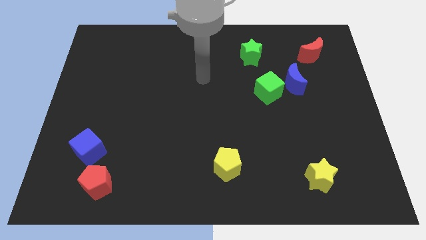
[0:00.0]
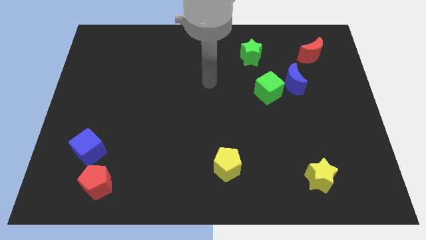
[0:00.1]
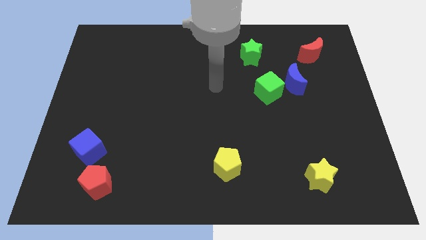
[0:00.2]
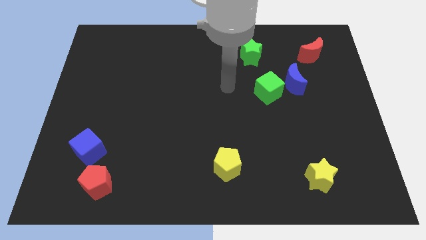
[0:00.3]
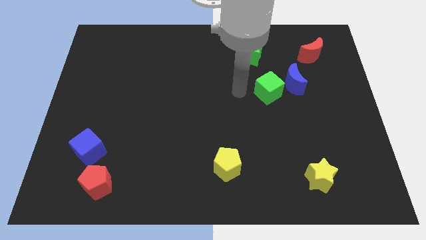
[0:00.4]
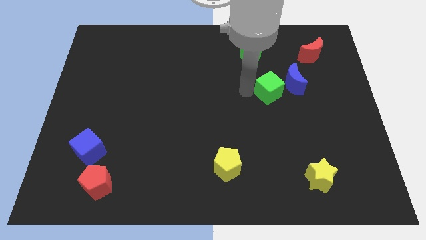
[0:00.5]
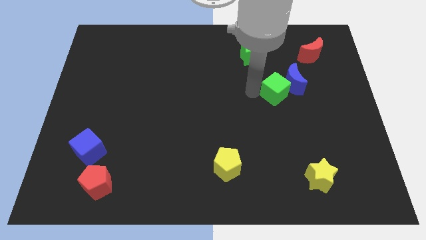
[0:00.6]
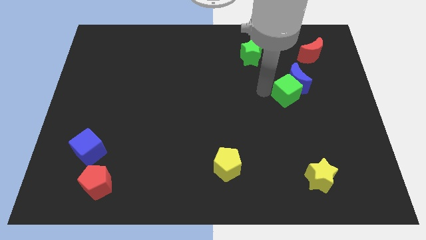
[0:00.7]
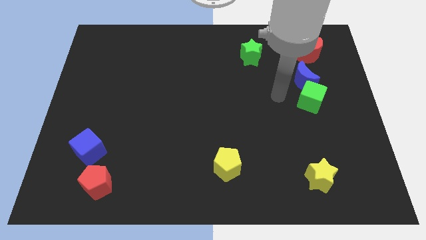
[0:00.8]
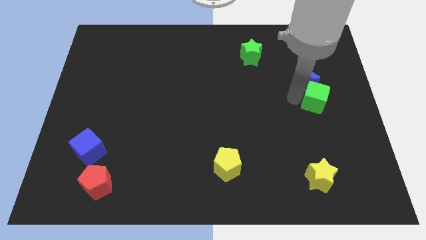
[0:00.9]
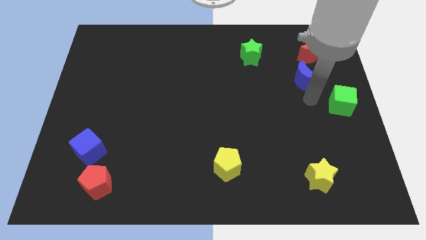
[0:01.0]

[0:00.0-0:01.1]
pull the blue moon apart from the green cube

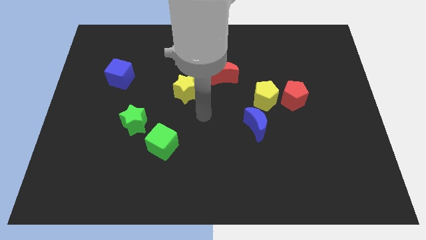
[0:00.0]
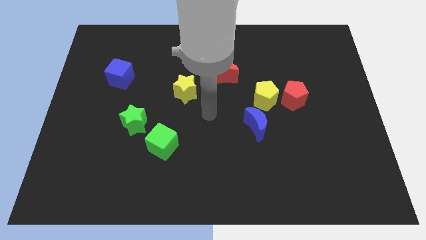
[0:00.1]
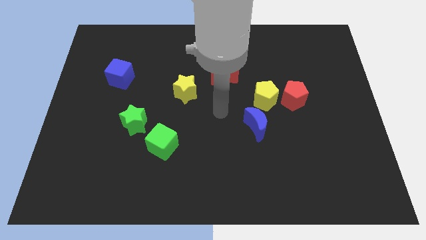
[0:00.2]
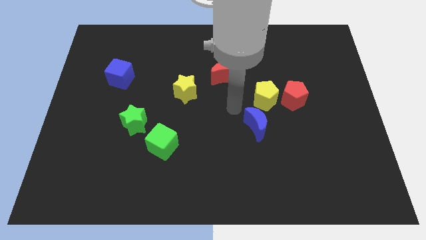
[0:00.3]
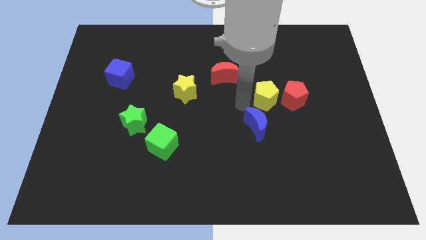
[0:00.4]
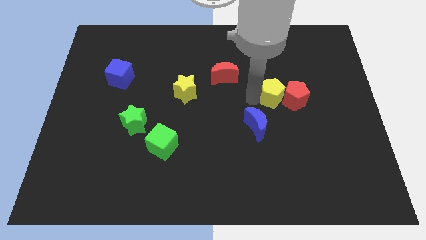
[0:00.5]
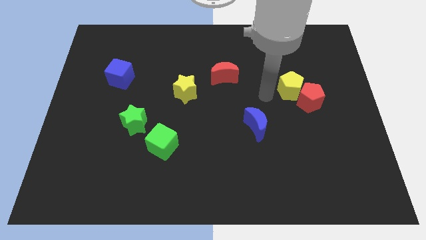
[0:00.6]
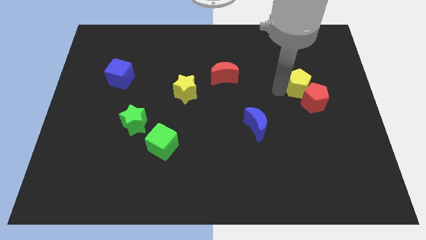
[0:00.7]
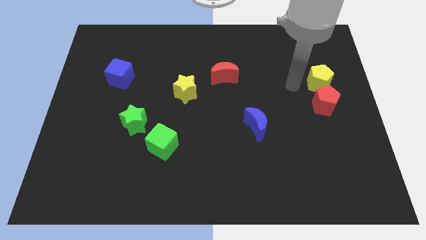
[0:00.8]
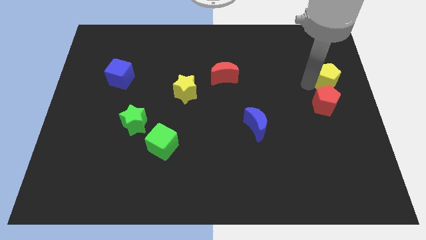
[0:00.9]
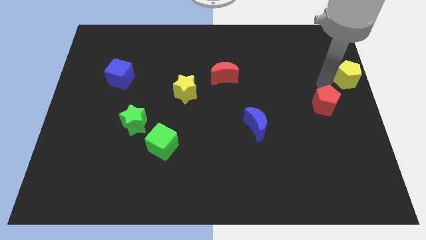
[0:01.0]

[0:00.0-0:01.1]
pull the red pentagon apart from the yellow pentagon

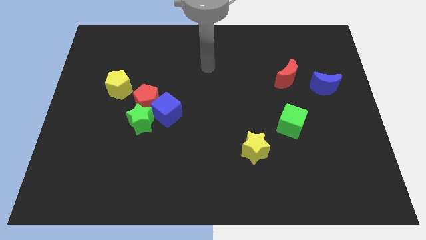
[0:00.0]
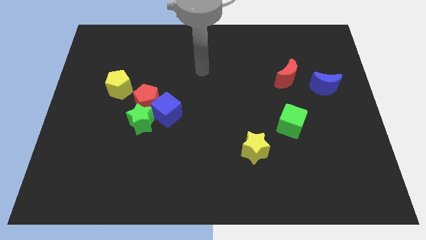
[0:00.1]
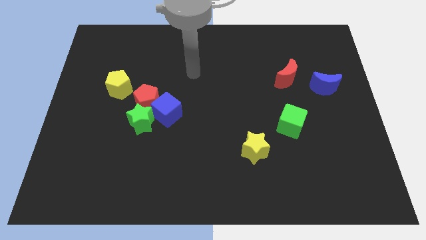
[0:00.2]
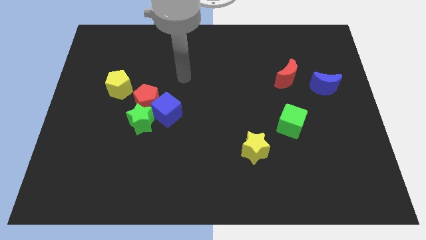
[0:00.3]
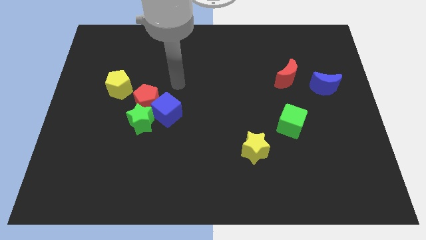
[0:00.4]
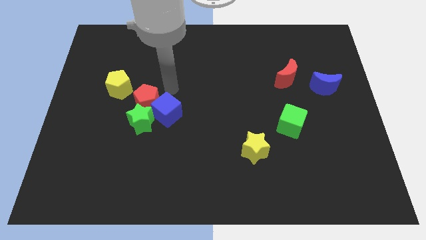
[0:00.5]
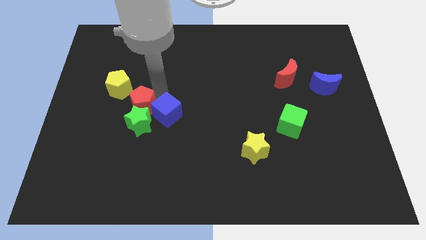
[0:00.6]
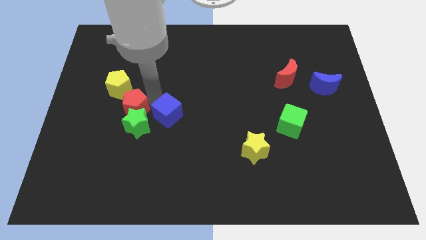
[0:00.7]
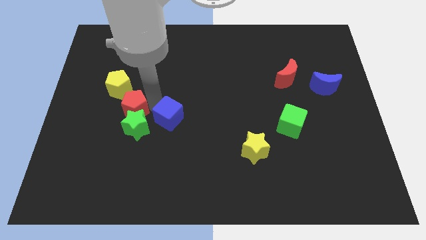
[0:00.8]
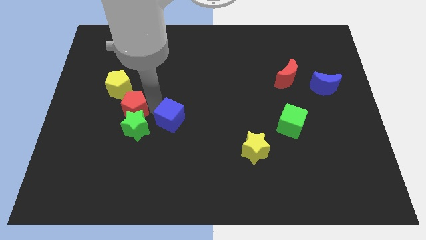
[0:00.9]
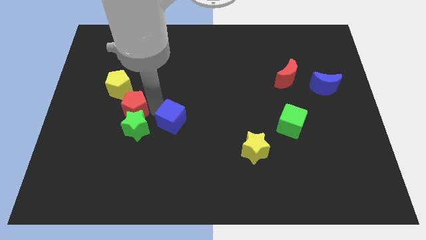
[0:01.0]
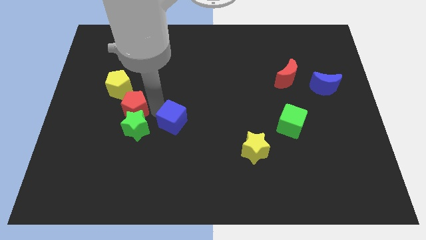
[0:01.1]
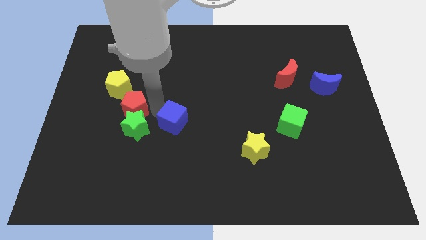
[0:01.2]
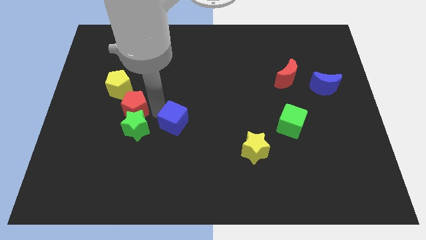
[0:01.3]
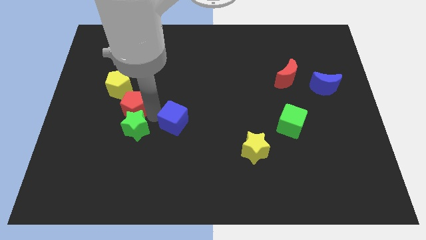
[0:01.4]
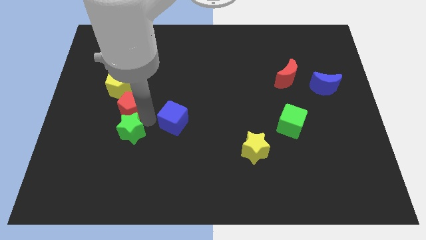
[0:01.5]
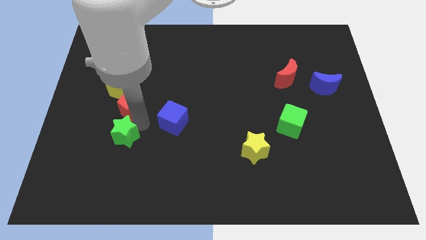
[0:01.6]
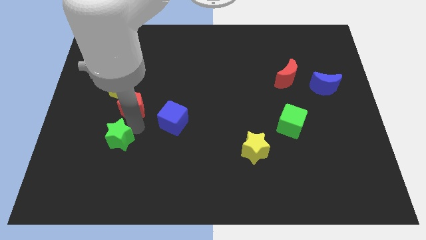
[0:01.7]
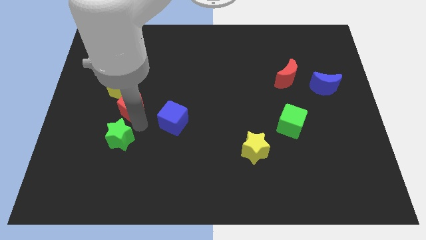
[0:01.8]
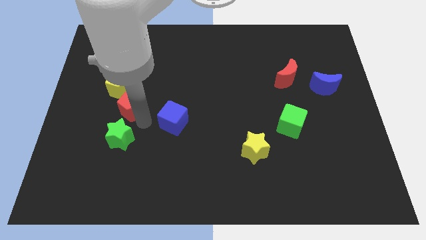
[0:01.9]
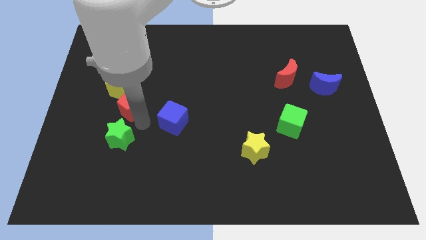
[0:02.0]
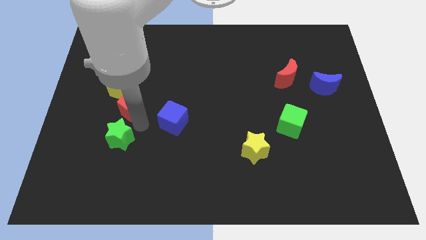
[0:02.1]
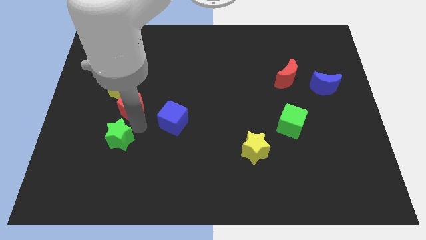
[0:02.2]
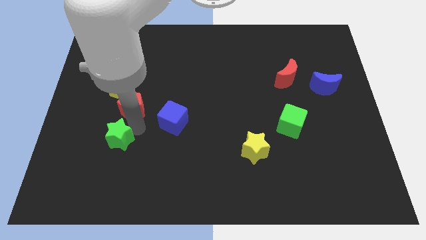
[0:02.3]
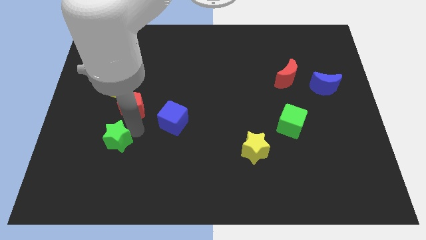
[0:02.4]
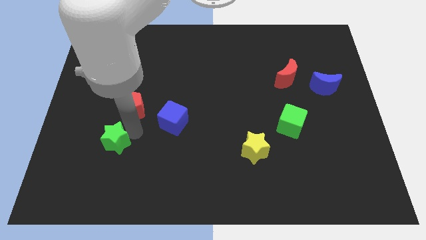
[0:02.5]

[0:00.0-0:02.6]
pull the green star apart from the red pentagon and blue cube

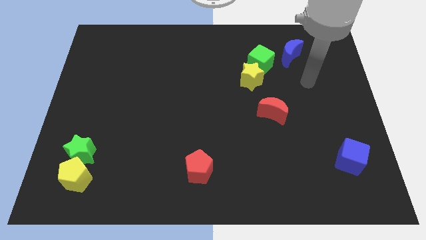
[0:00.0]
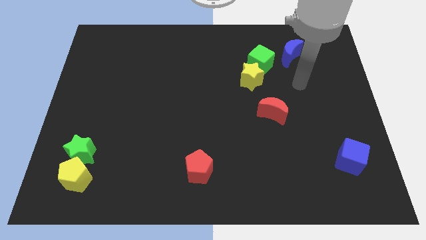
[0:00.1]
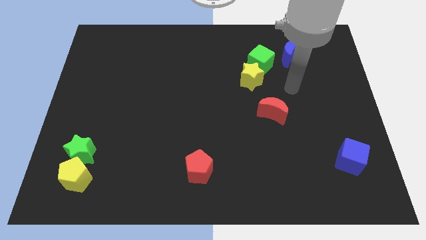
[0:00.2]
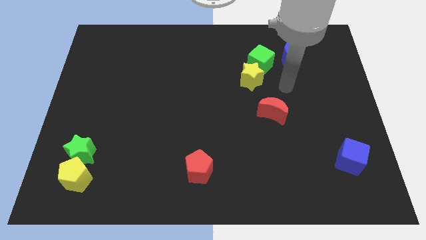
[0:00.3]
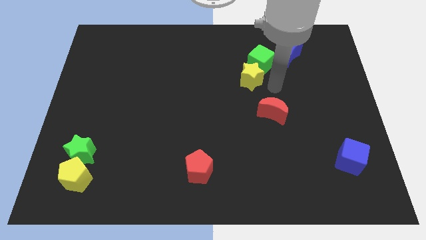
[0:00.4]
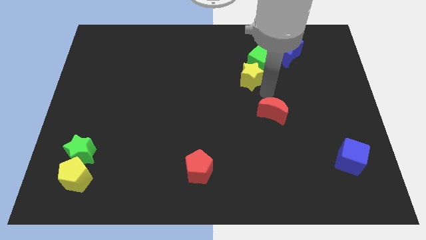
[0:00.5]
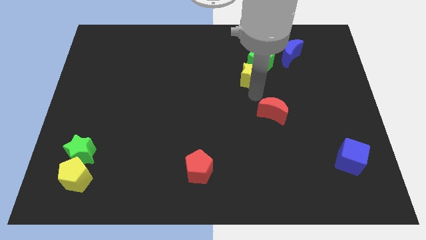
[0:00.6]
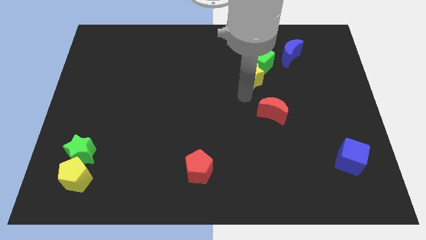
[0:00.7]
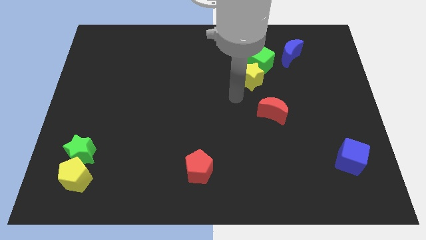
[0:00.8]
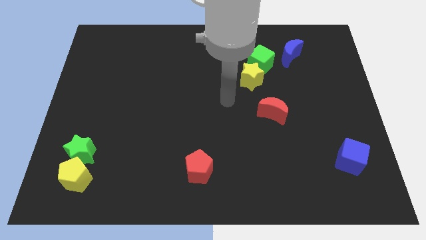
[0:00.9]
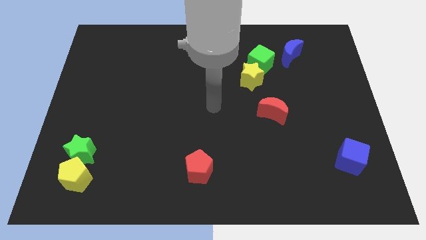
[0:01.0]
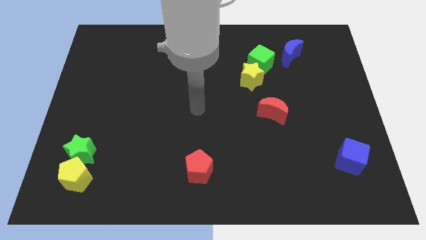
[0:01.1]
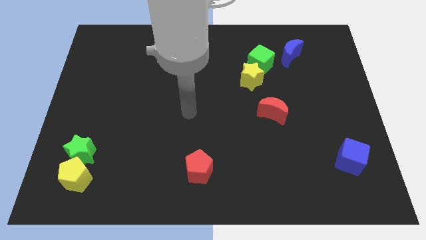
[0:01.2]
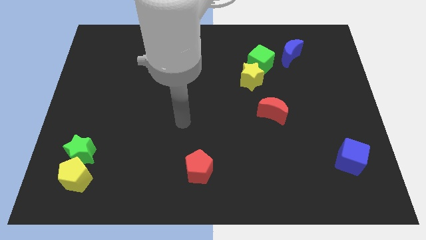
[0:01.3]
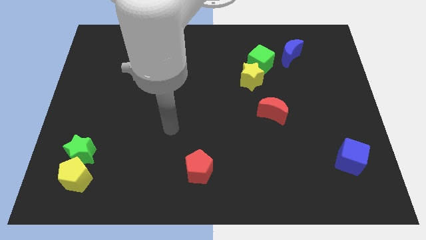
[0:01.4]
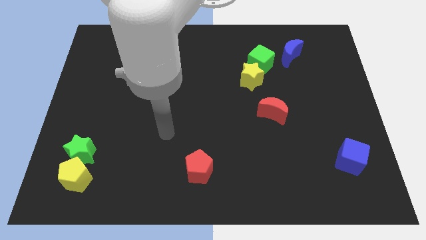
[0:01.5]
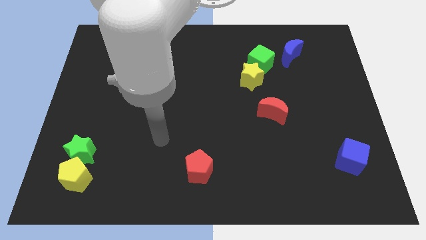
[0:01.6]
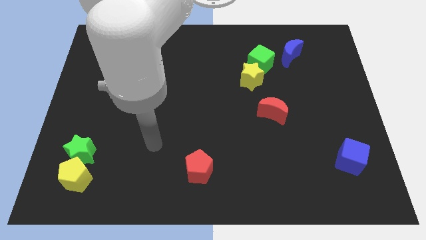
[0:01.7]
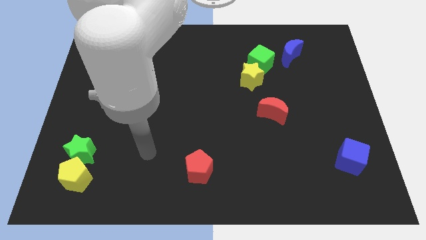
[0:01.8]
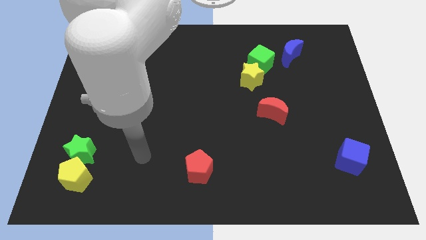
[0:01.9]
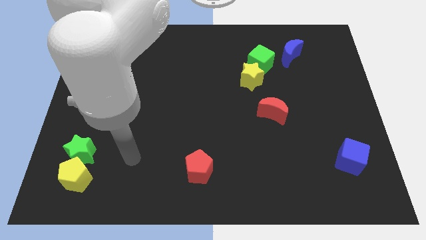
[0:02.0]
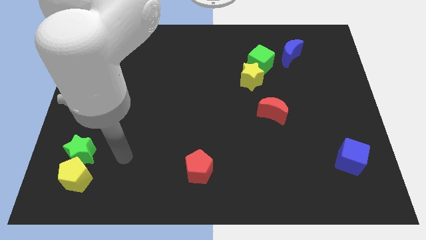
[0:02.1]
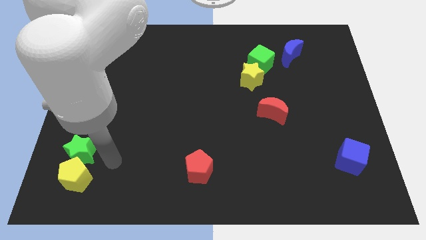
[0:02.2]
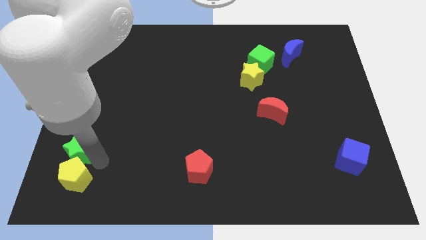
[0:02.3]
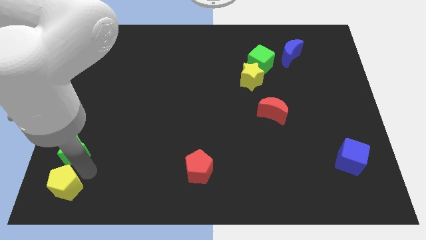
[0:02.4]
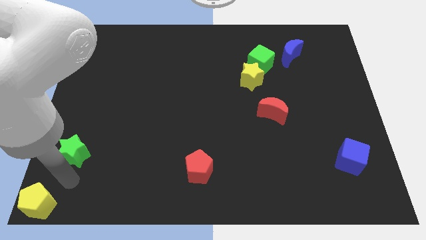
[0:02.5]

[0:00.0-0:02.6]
move the green star away from the yellow pentagon

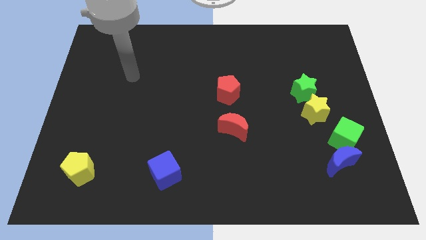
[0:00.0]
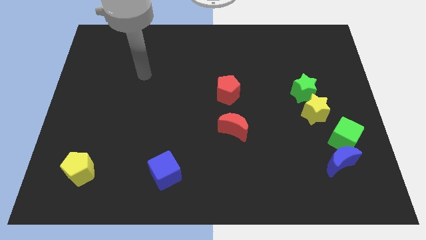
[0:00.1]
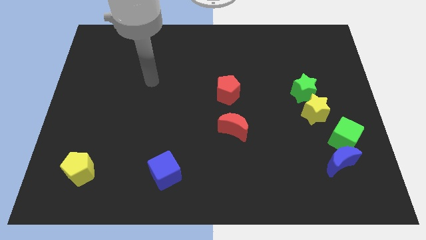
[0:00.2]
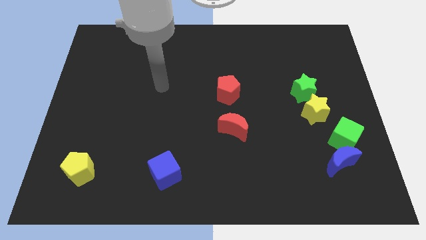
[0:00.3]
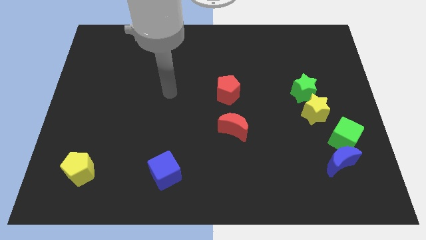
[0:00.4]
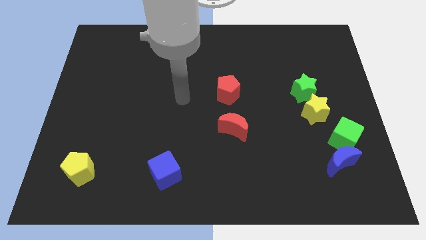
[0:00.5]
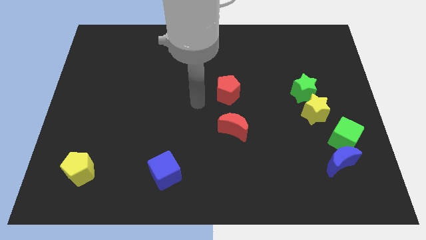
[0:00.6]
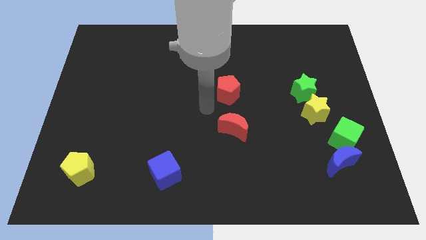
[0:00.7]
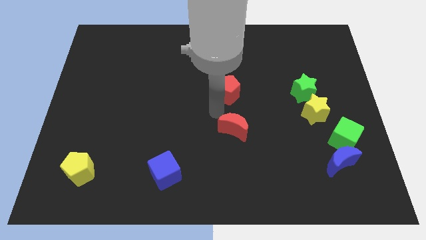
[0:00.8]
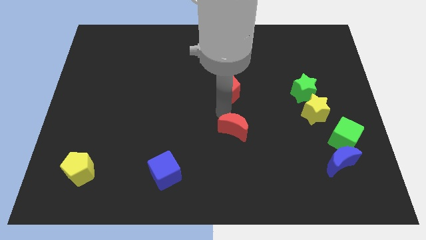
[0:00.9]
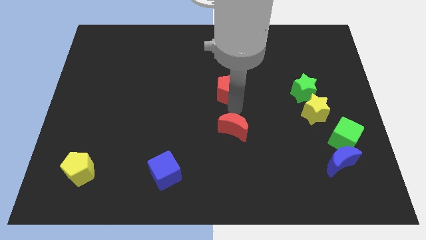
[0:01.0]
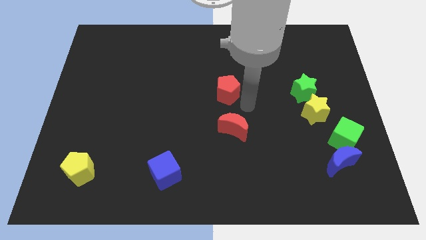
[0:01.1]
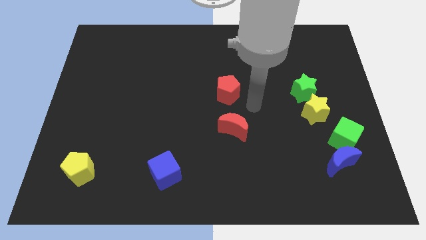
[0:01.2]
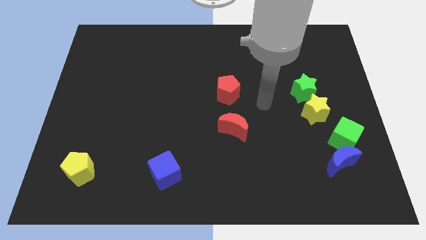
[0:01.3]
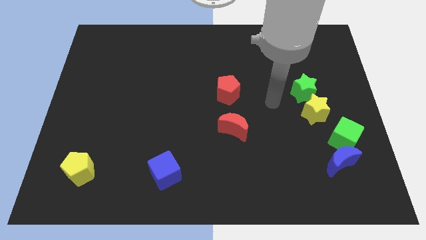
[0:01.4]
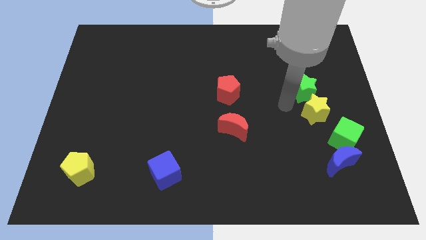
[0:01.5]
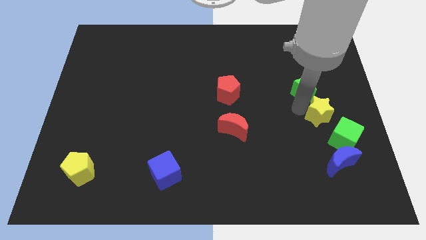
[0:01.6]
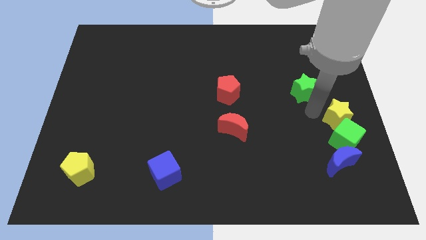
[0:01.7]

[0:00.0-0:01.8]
separate the green star from the yellow star
